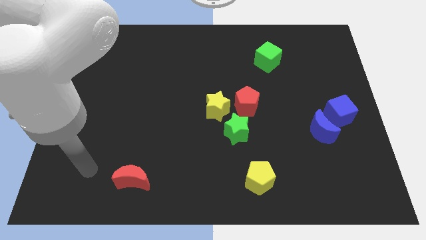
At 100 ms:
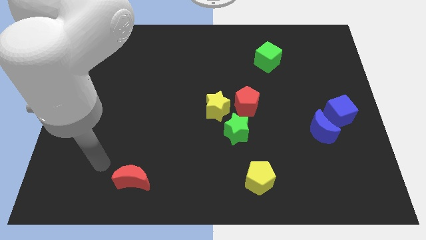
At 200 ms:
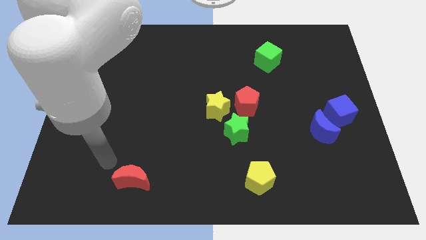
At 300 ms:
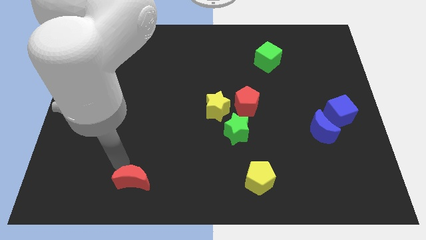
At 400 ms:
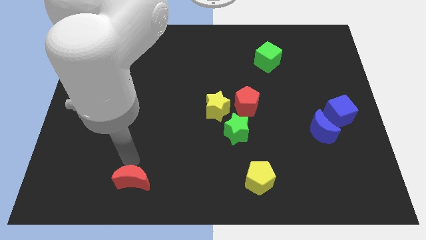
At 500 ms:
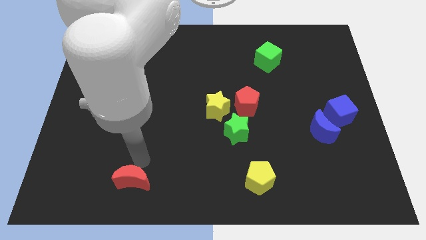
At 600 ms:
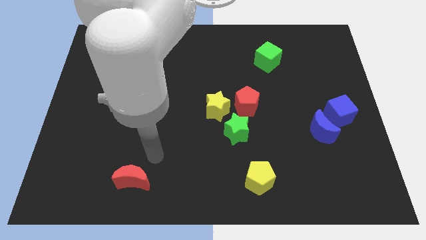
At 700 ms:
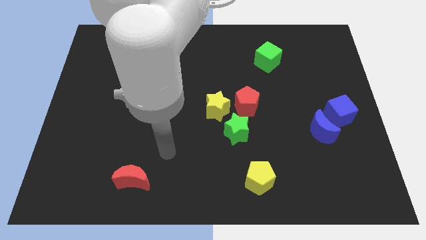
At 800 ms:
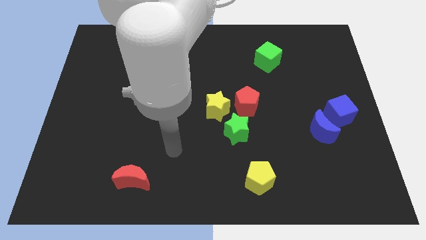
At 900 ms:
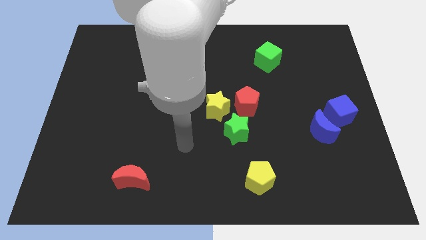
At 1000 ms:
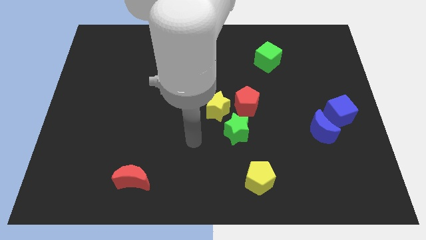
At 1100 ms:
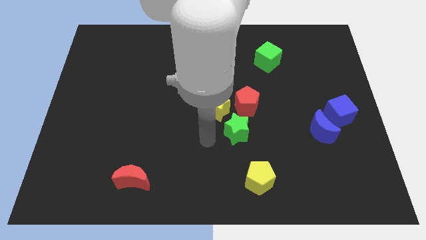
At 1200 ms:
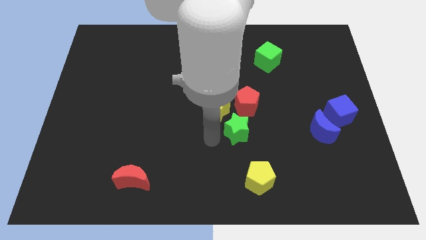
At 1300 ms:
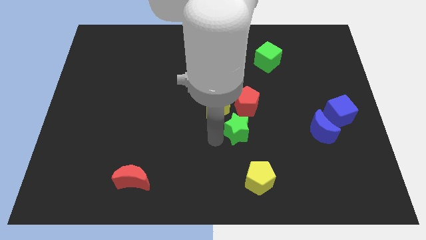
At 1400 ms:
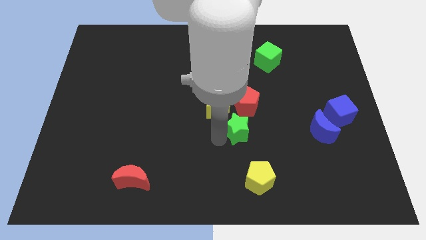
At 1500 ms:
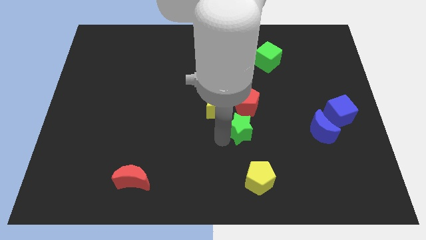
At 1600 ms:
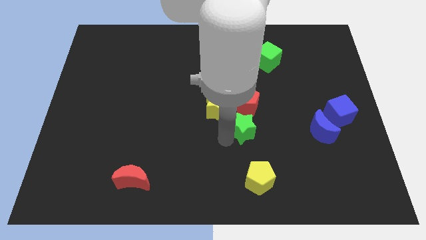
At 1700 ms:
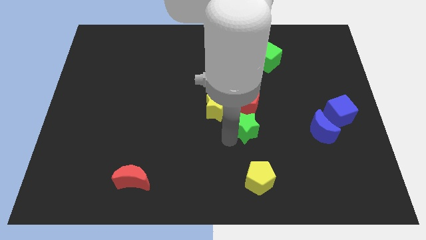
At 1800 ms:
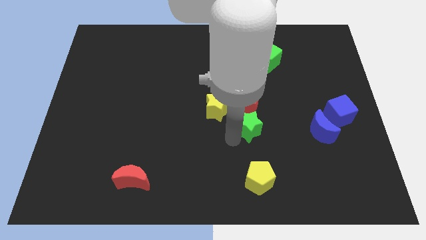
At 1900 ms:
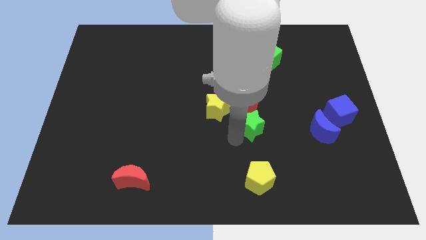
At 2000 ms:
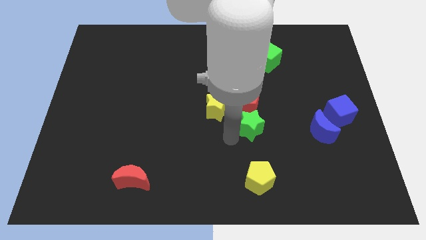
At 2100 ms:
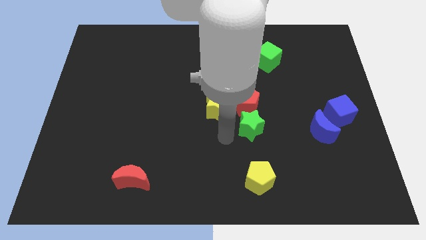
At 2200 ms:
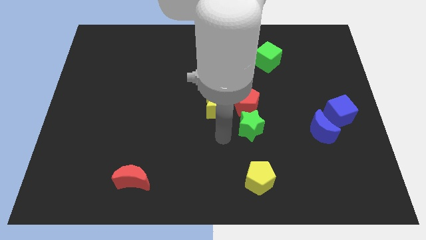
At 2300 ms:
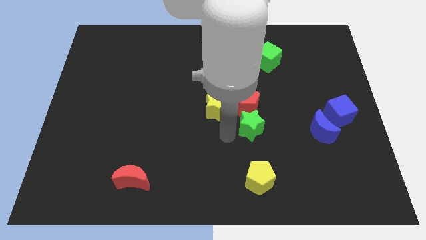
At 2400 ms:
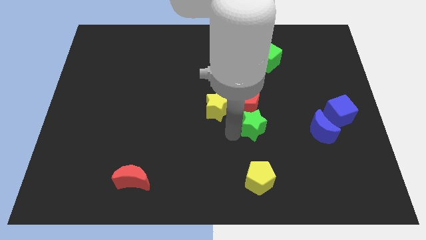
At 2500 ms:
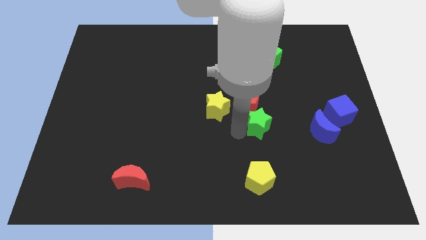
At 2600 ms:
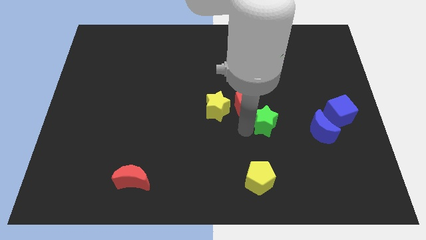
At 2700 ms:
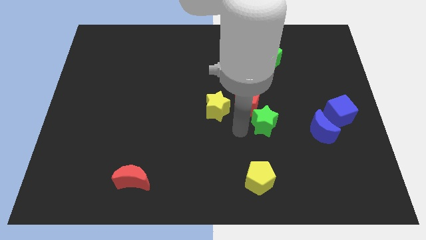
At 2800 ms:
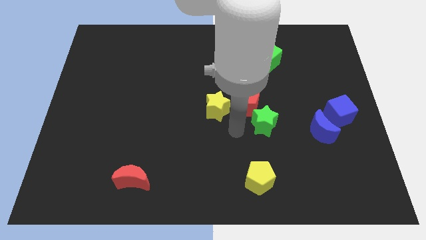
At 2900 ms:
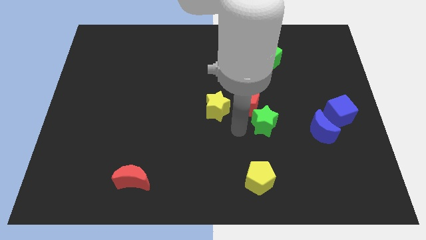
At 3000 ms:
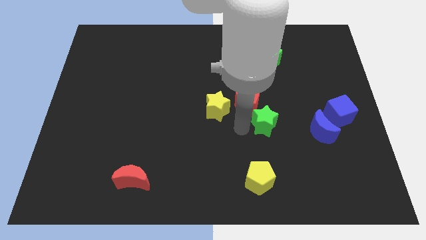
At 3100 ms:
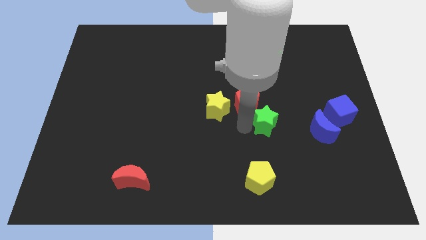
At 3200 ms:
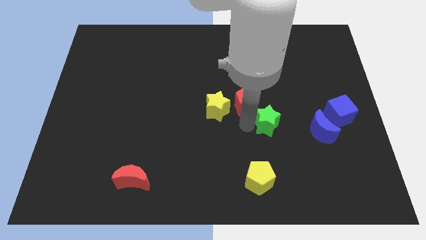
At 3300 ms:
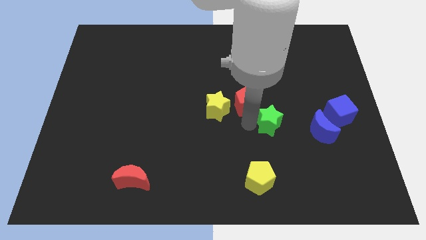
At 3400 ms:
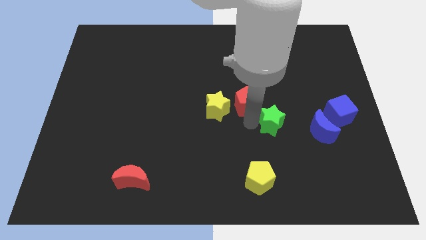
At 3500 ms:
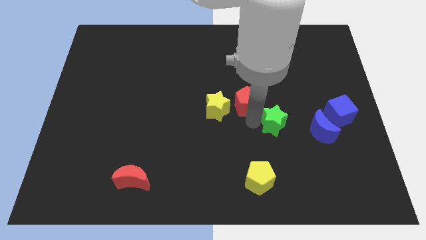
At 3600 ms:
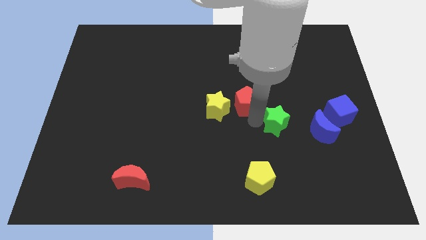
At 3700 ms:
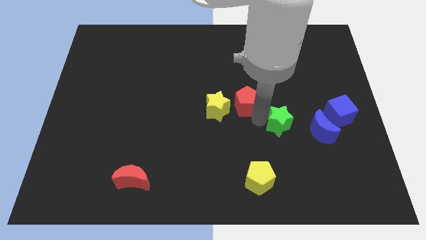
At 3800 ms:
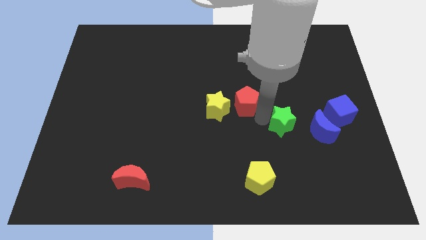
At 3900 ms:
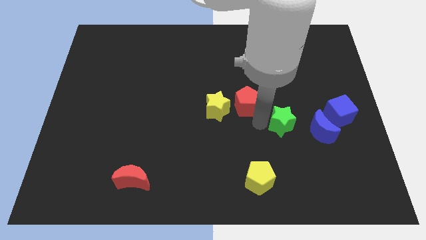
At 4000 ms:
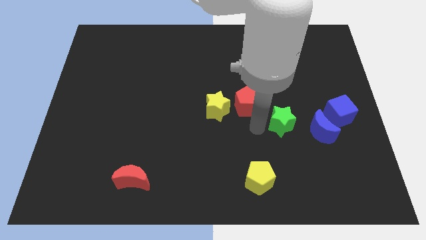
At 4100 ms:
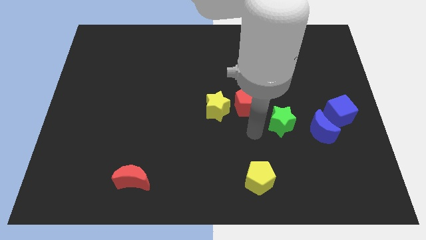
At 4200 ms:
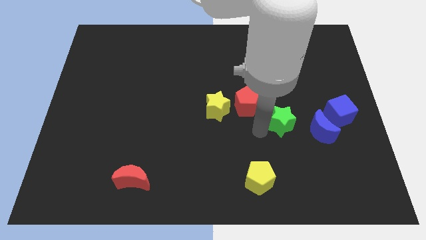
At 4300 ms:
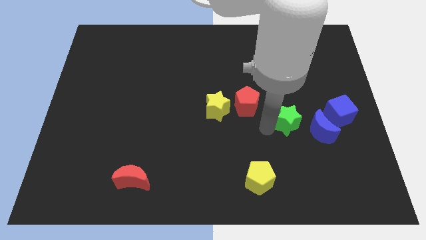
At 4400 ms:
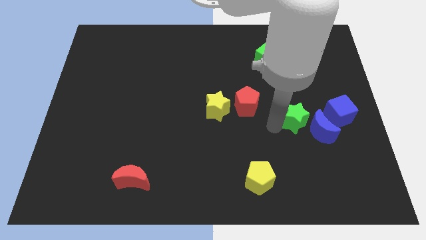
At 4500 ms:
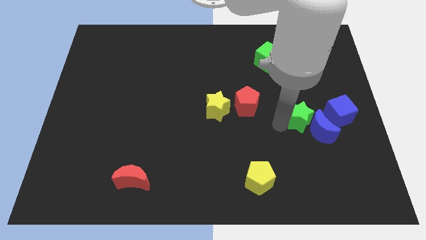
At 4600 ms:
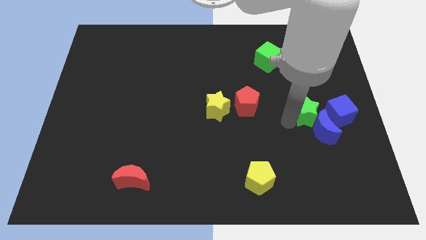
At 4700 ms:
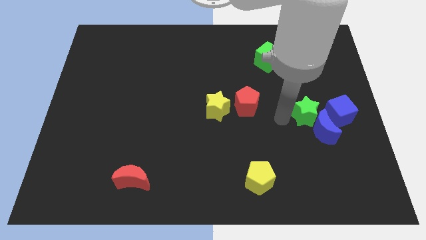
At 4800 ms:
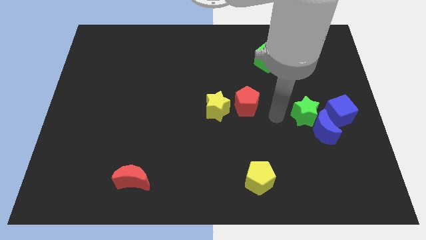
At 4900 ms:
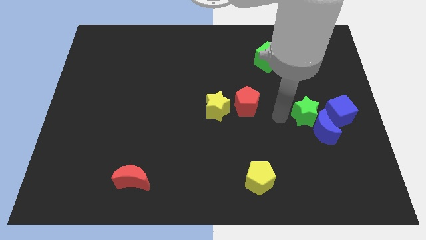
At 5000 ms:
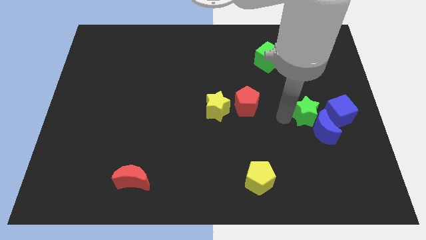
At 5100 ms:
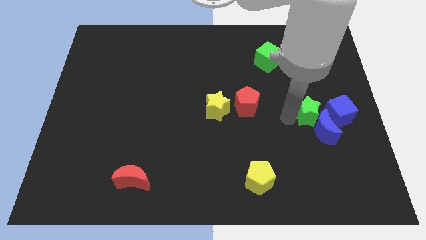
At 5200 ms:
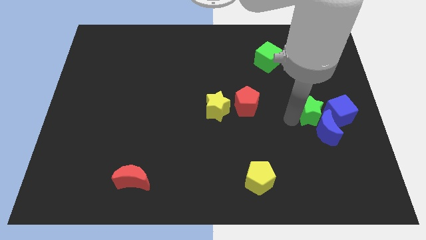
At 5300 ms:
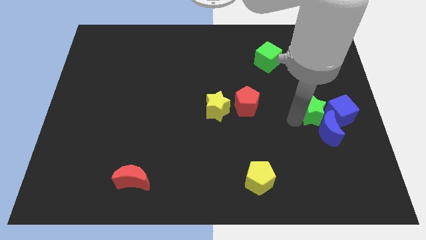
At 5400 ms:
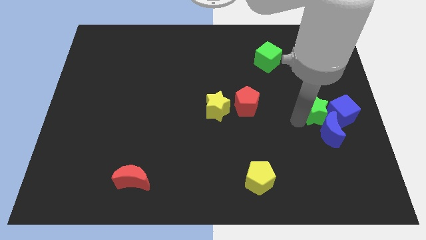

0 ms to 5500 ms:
put the green star close to the blue cube

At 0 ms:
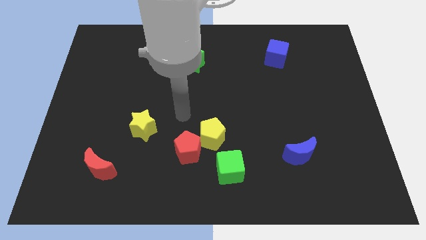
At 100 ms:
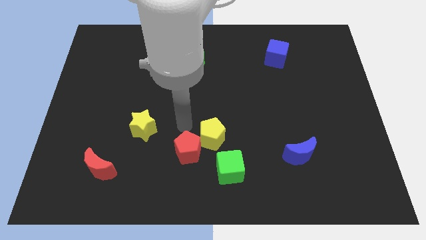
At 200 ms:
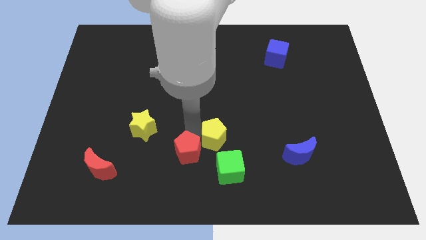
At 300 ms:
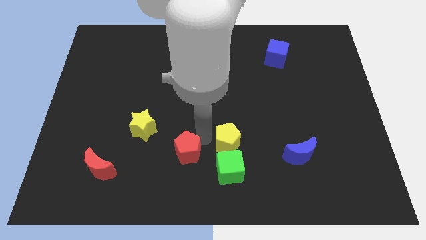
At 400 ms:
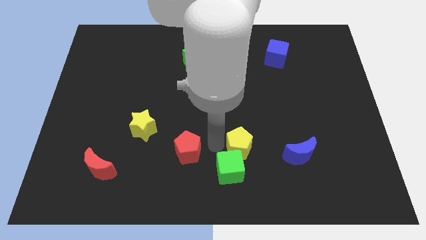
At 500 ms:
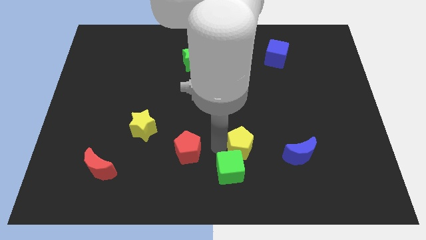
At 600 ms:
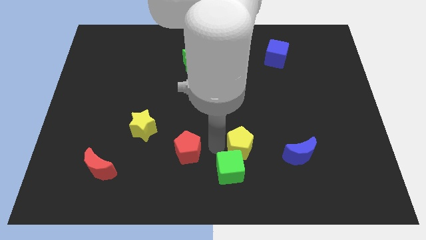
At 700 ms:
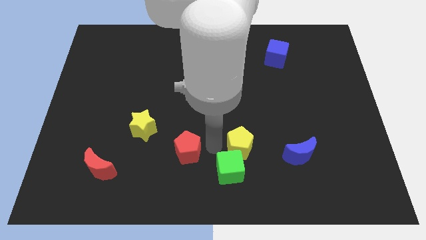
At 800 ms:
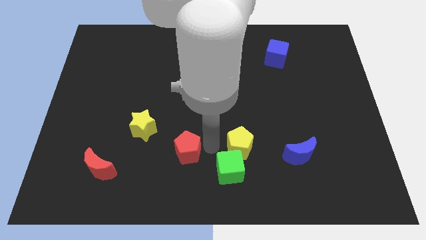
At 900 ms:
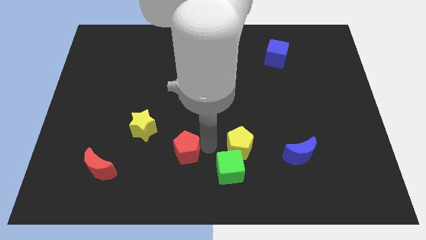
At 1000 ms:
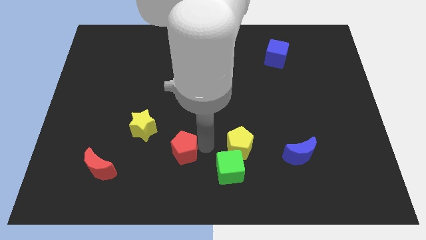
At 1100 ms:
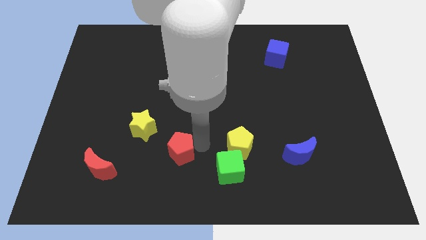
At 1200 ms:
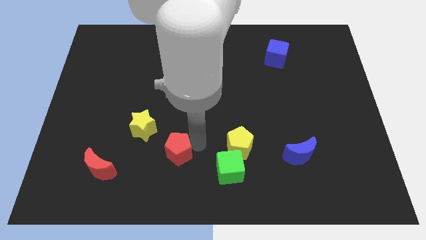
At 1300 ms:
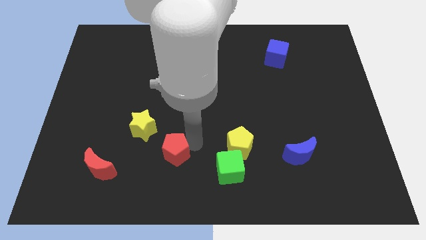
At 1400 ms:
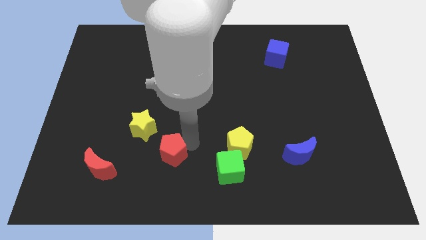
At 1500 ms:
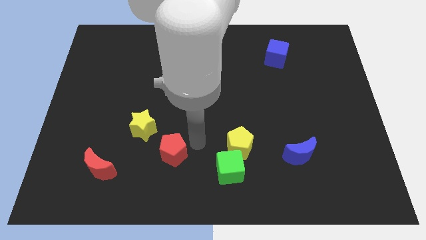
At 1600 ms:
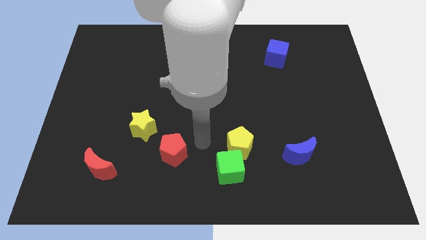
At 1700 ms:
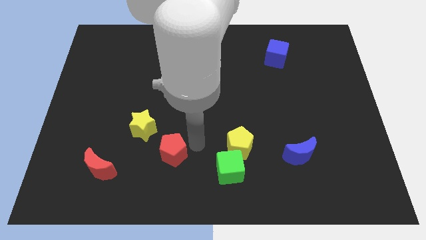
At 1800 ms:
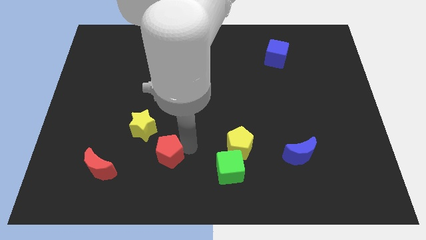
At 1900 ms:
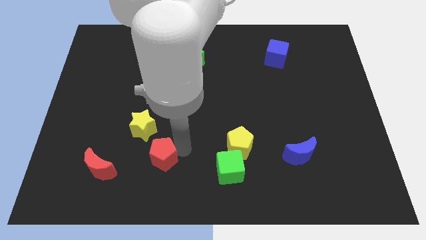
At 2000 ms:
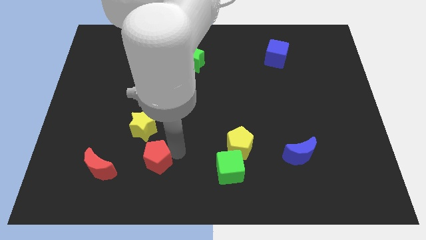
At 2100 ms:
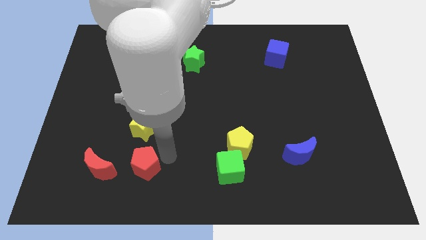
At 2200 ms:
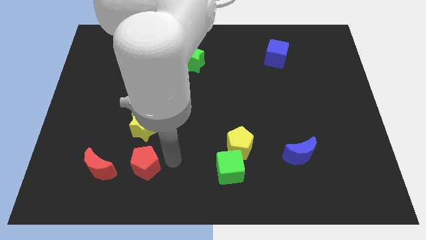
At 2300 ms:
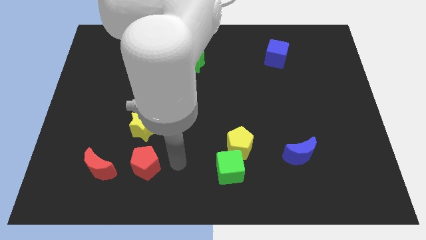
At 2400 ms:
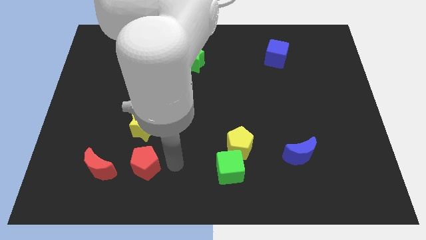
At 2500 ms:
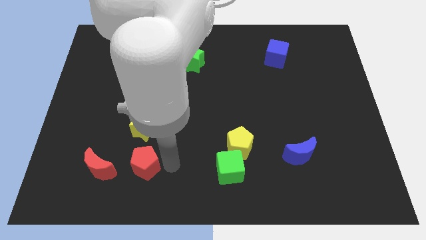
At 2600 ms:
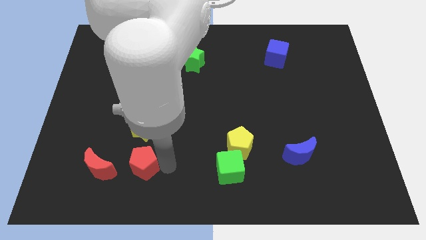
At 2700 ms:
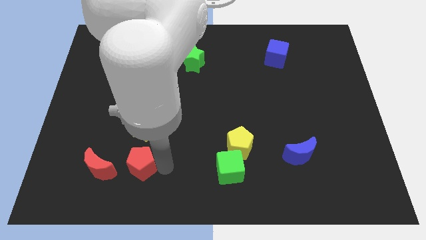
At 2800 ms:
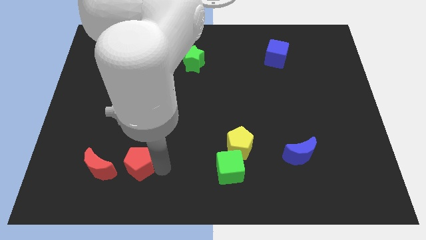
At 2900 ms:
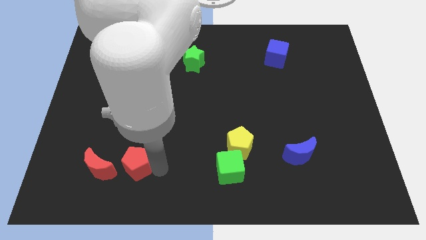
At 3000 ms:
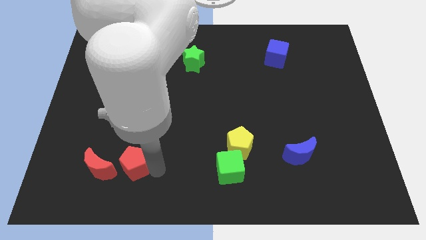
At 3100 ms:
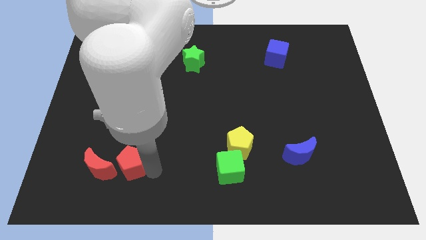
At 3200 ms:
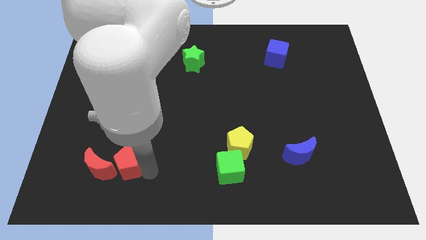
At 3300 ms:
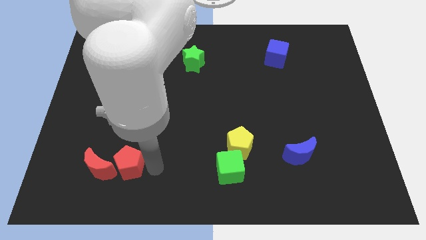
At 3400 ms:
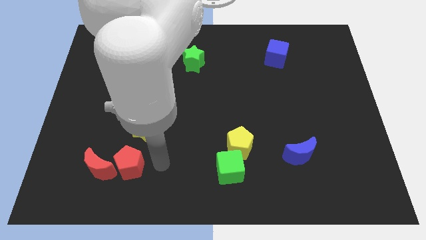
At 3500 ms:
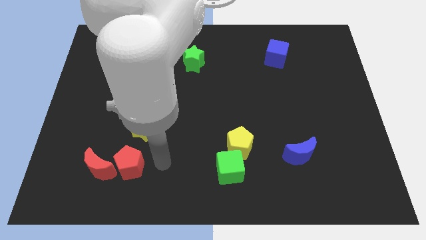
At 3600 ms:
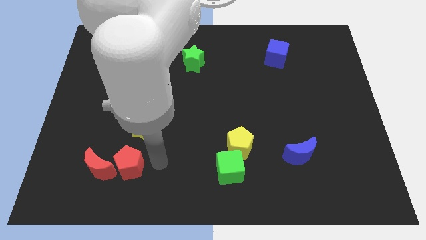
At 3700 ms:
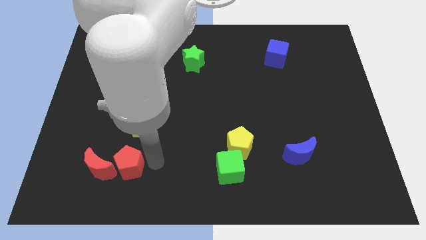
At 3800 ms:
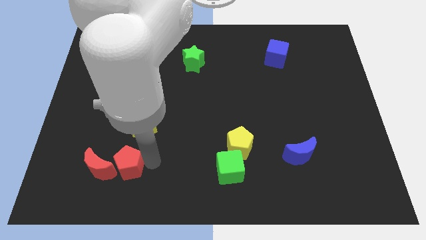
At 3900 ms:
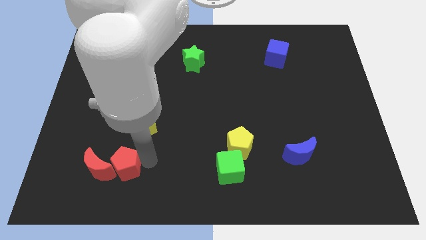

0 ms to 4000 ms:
push the red pentagon close to the red moon
